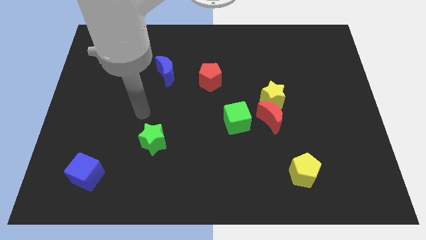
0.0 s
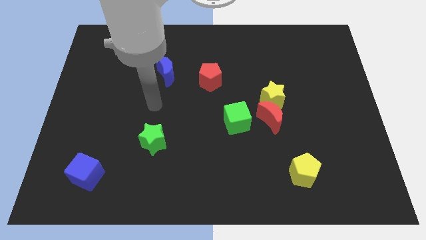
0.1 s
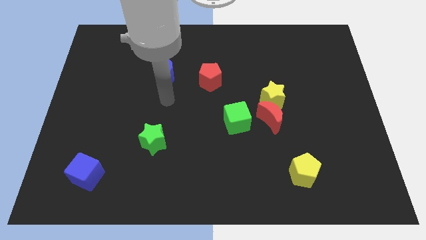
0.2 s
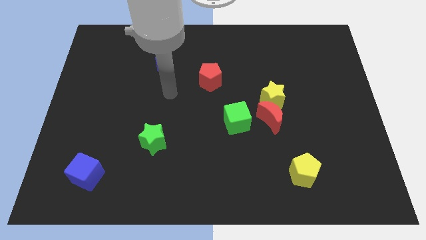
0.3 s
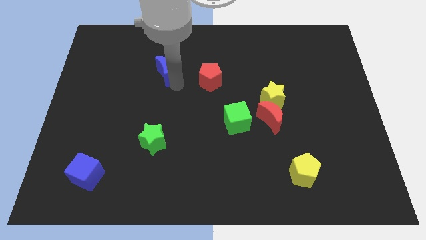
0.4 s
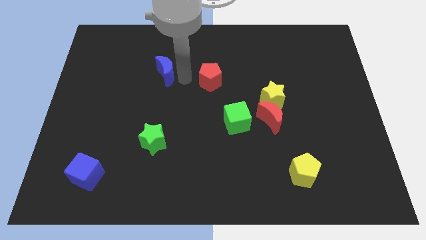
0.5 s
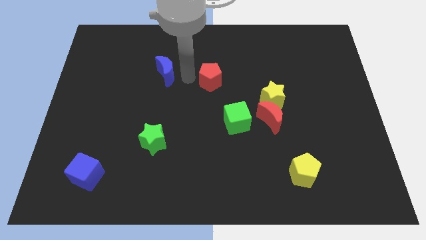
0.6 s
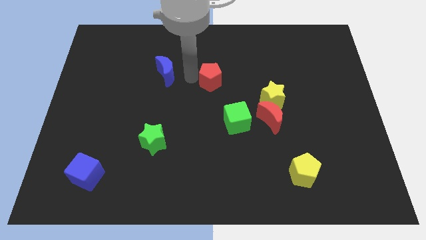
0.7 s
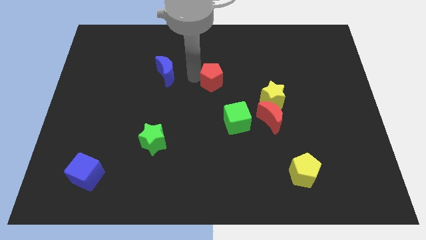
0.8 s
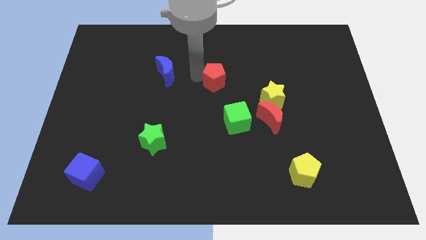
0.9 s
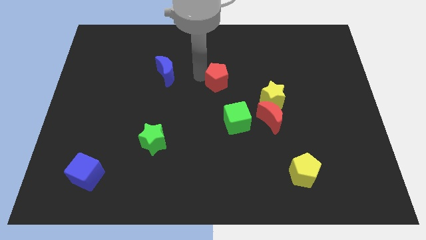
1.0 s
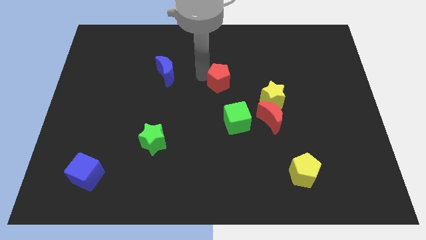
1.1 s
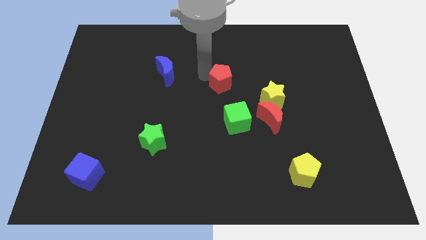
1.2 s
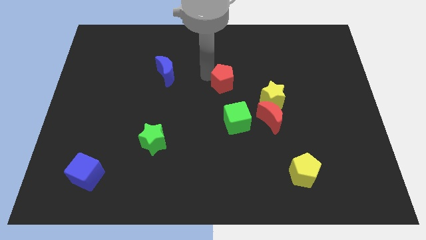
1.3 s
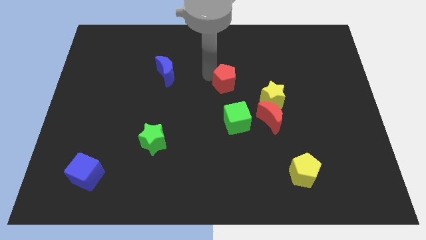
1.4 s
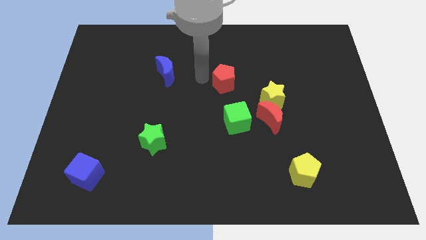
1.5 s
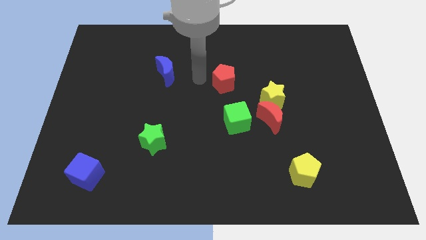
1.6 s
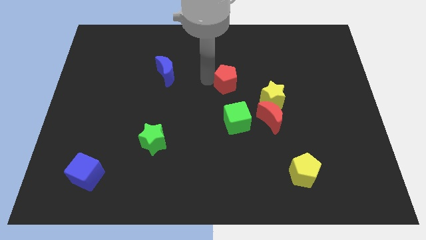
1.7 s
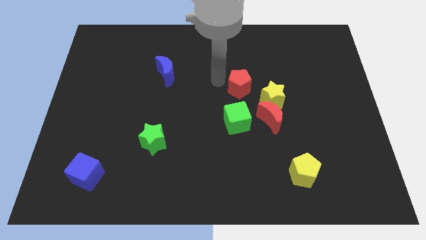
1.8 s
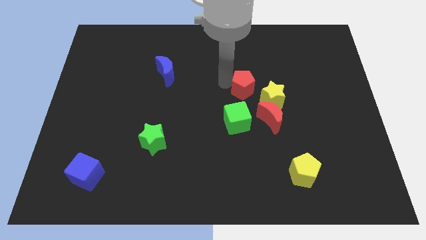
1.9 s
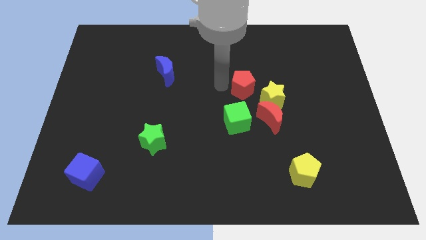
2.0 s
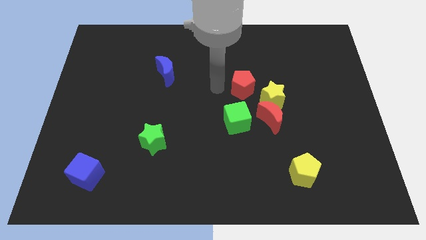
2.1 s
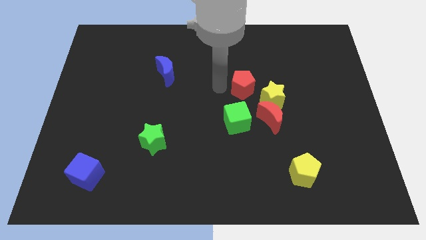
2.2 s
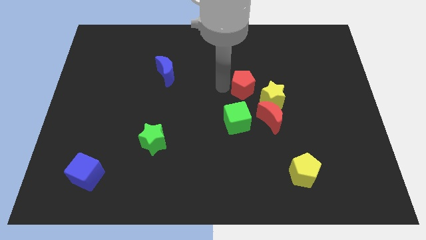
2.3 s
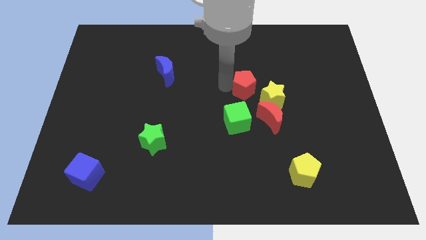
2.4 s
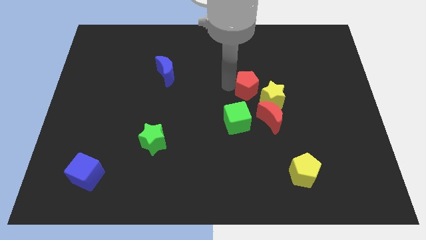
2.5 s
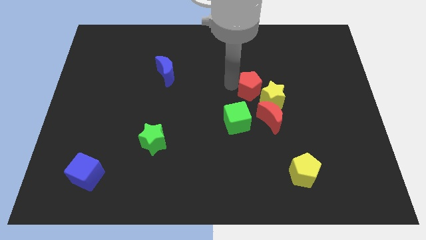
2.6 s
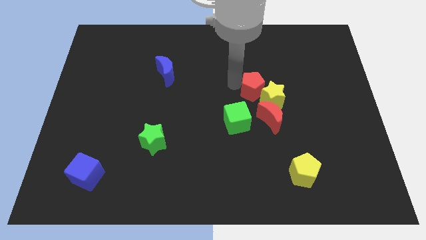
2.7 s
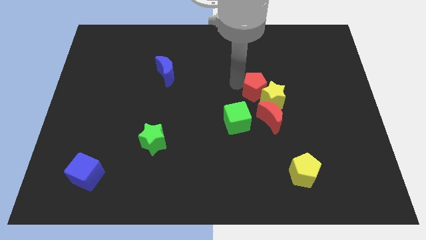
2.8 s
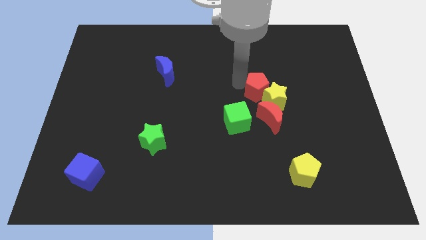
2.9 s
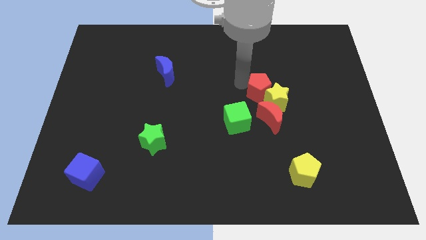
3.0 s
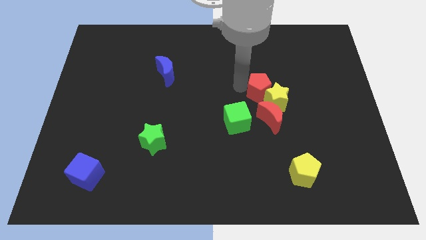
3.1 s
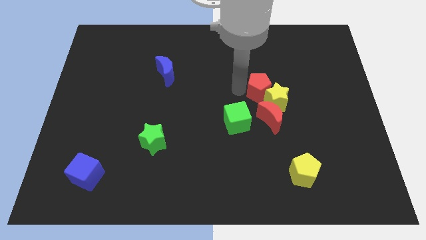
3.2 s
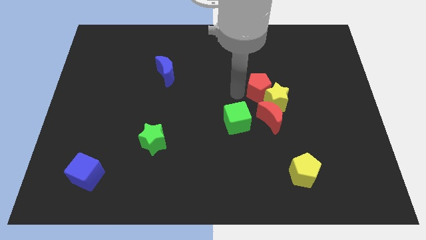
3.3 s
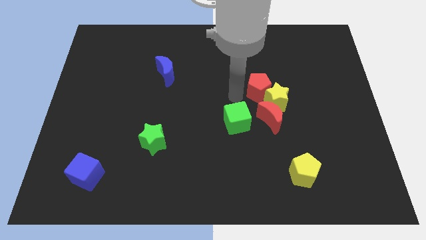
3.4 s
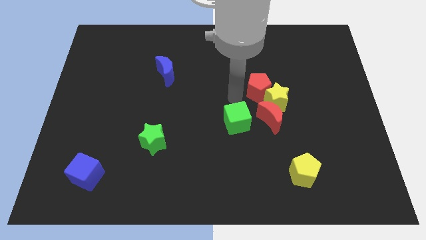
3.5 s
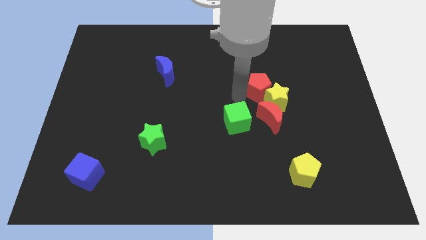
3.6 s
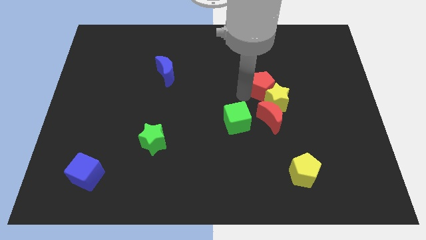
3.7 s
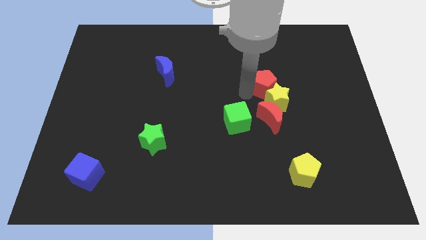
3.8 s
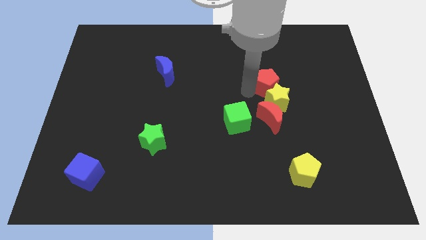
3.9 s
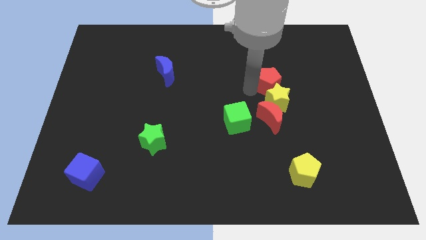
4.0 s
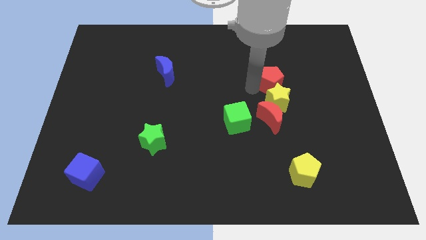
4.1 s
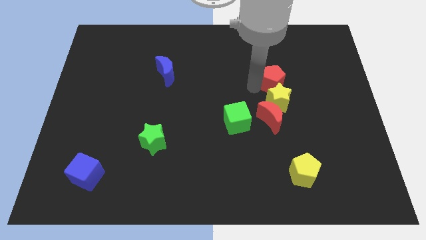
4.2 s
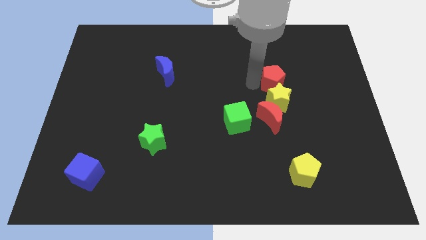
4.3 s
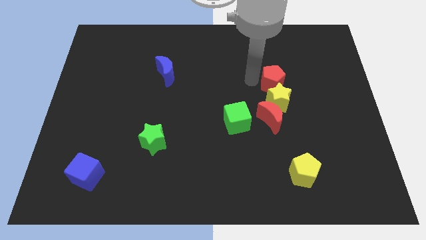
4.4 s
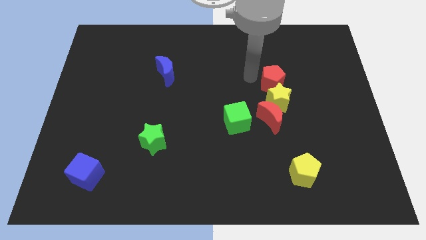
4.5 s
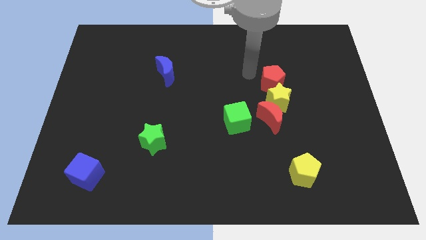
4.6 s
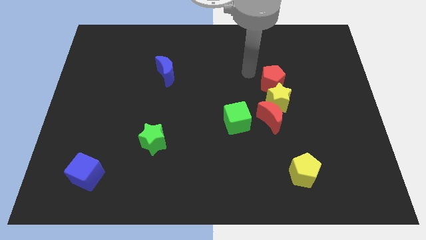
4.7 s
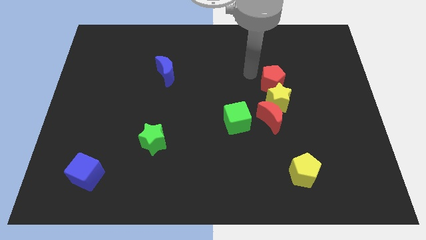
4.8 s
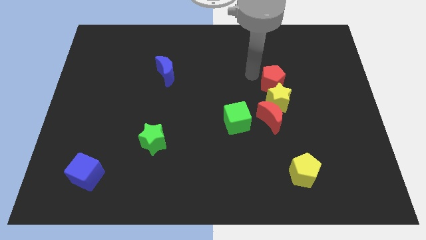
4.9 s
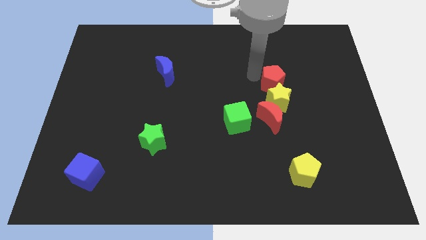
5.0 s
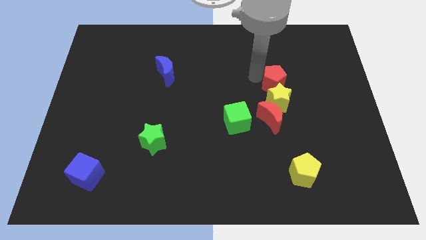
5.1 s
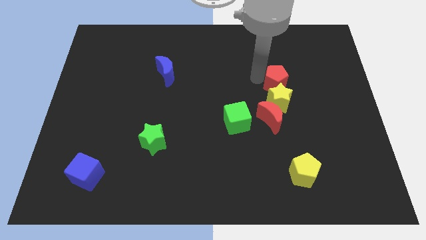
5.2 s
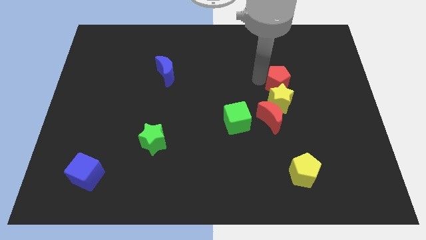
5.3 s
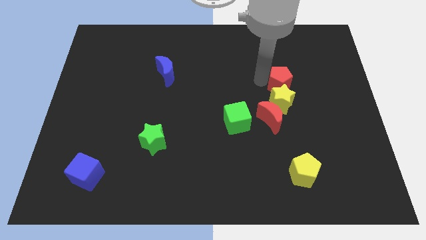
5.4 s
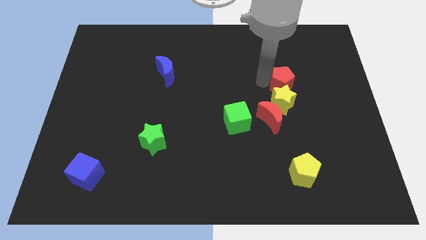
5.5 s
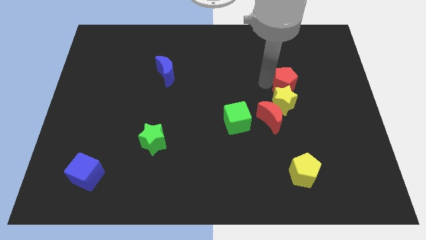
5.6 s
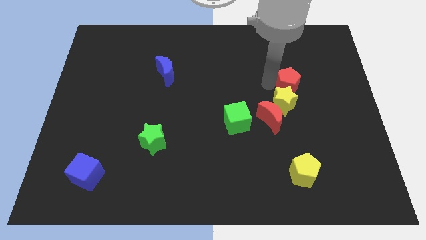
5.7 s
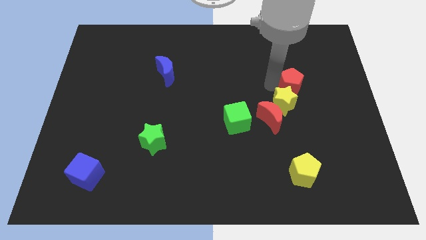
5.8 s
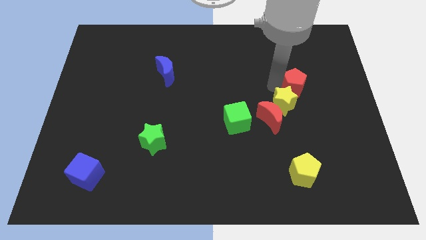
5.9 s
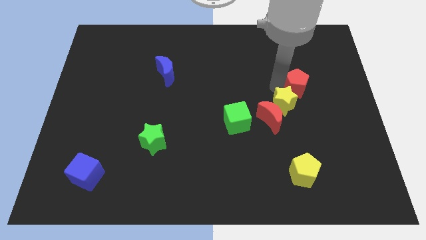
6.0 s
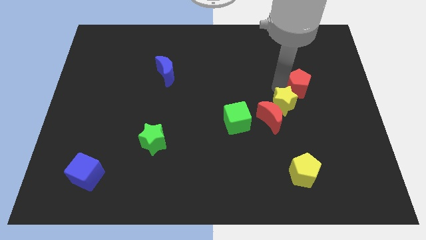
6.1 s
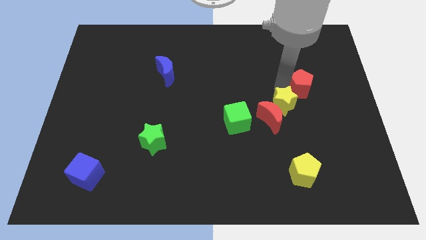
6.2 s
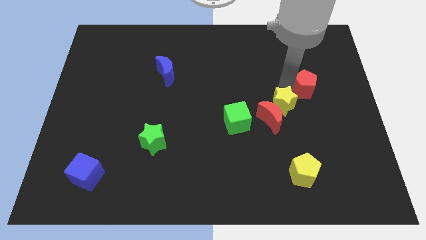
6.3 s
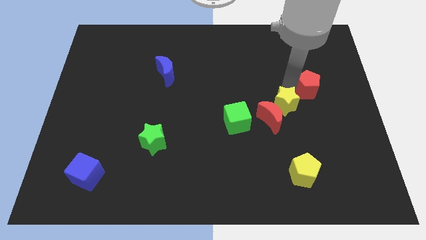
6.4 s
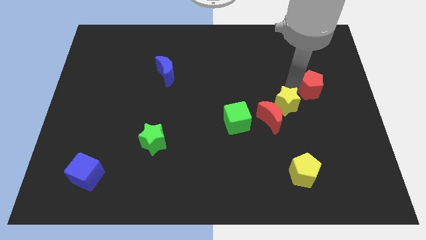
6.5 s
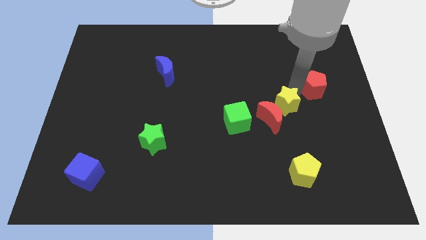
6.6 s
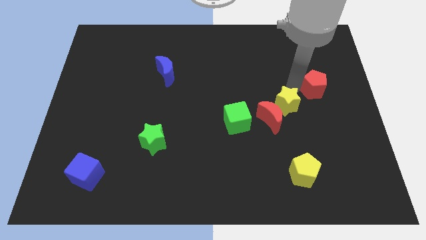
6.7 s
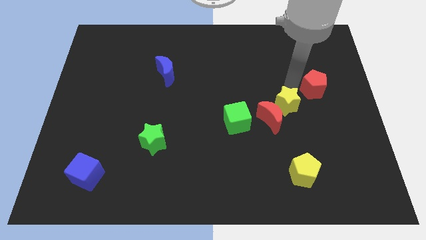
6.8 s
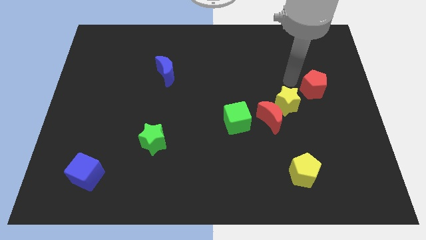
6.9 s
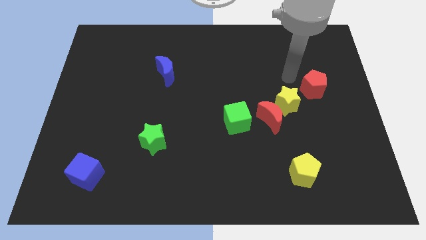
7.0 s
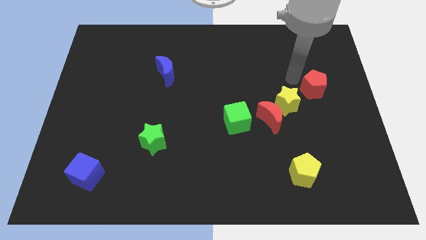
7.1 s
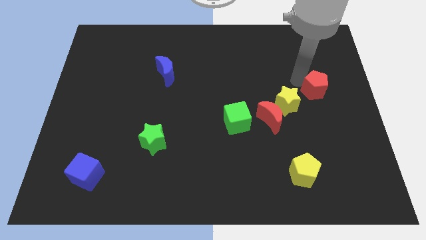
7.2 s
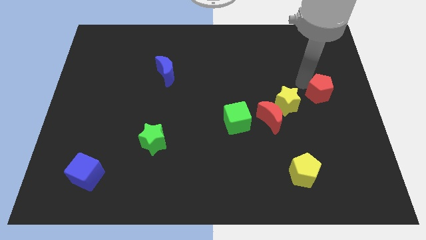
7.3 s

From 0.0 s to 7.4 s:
slide the red pentagon to the center right
